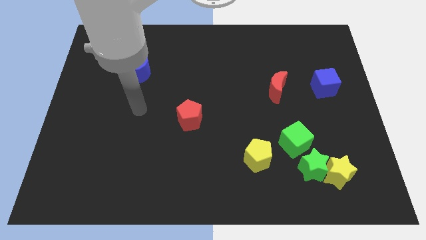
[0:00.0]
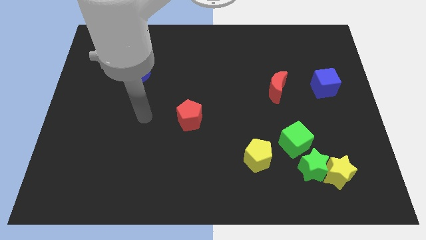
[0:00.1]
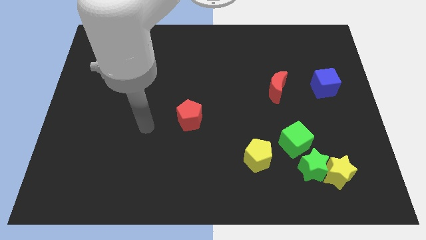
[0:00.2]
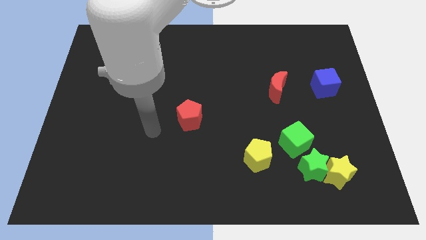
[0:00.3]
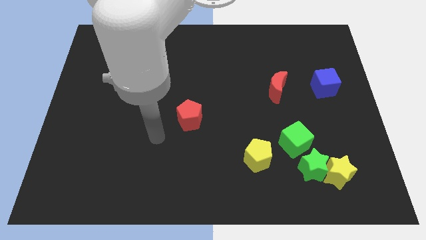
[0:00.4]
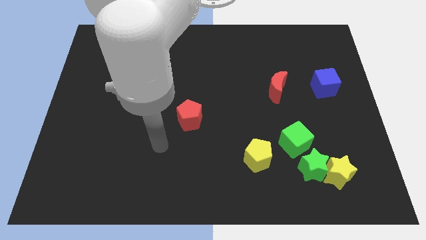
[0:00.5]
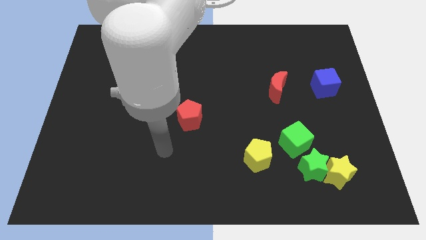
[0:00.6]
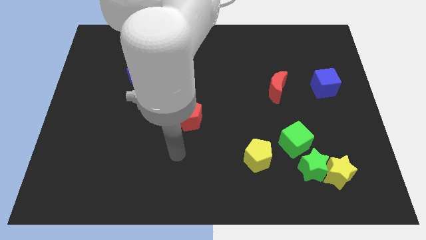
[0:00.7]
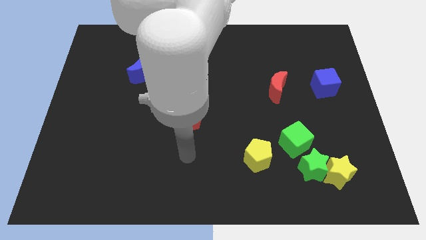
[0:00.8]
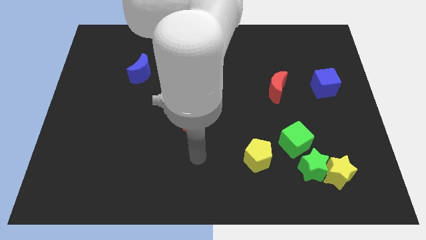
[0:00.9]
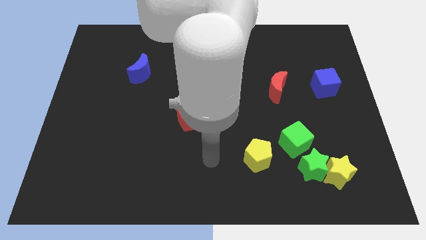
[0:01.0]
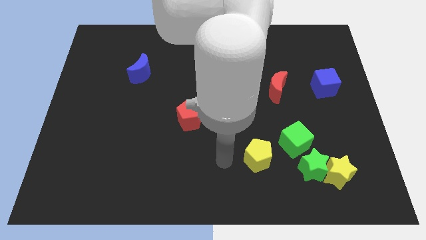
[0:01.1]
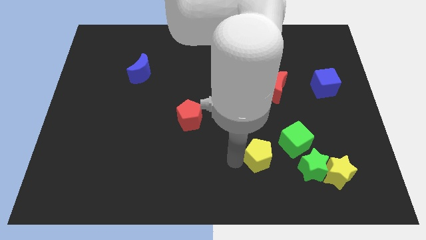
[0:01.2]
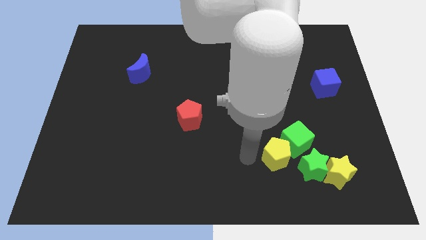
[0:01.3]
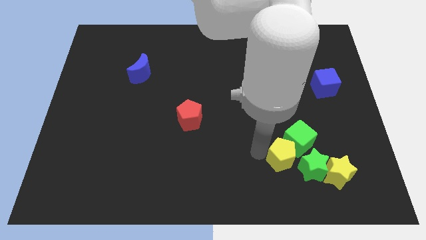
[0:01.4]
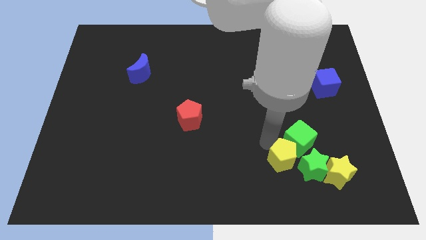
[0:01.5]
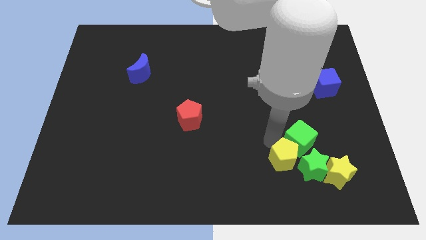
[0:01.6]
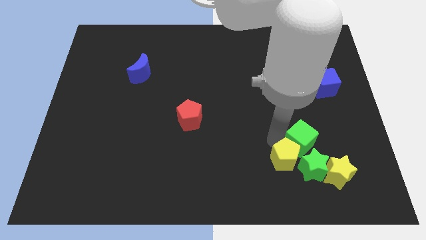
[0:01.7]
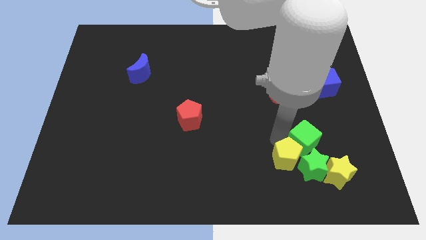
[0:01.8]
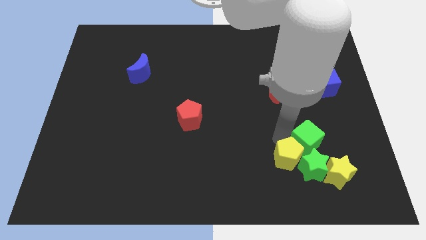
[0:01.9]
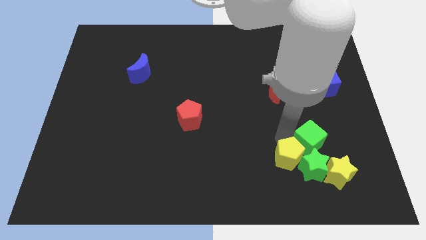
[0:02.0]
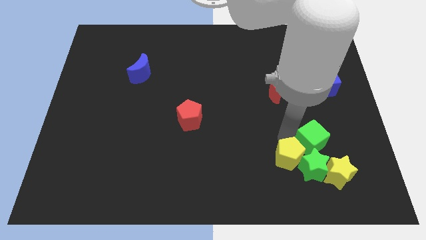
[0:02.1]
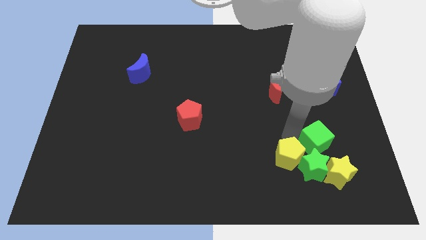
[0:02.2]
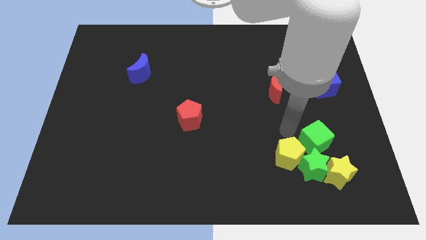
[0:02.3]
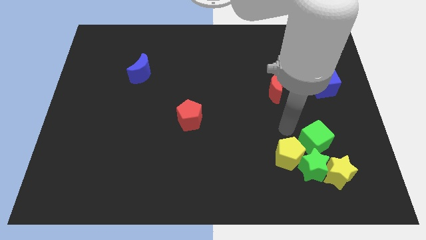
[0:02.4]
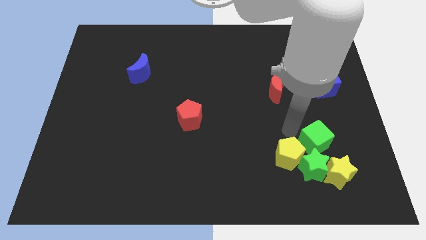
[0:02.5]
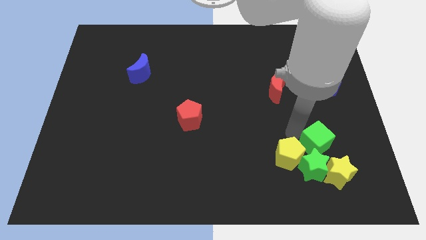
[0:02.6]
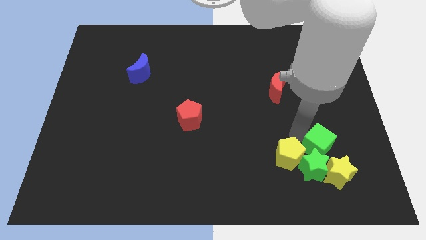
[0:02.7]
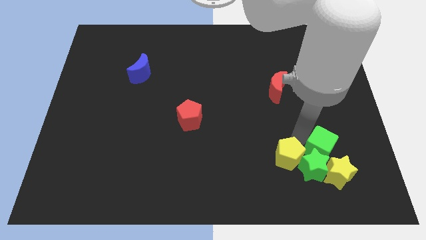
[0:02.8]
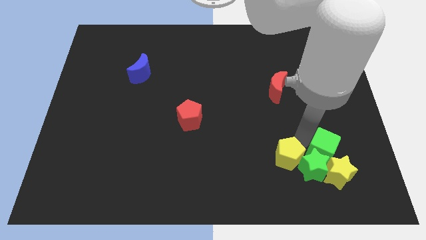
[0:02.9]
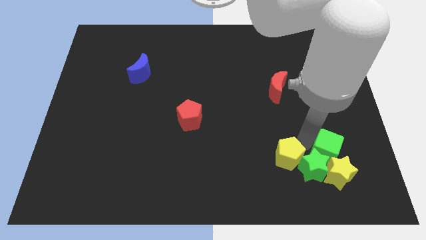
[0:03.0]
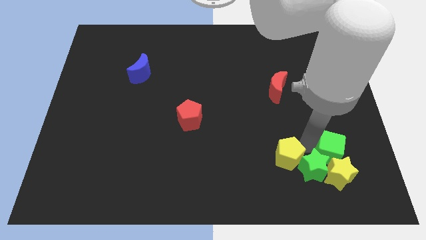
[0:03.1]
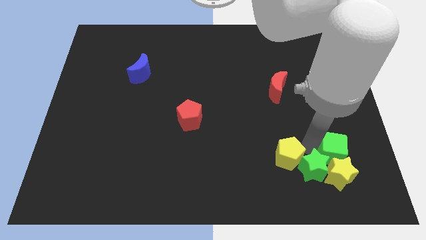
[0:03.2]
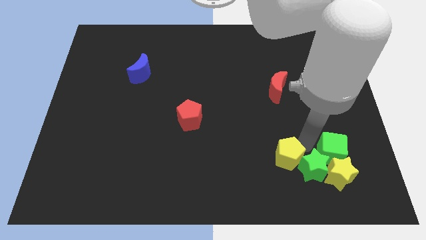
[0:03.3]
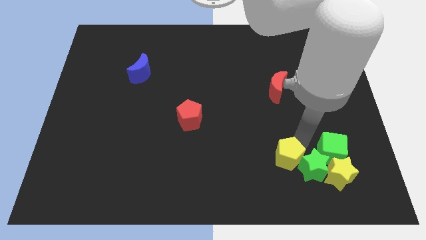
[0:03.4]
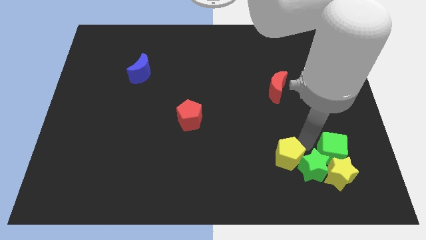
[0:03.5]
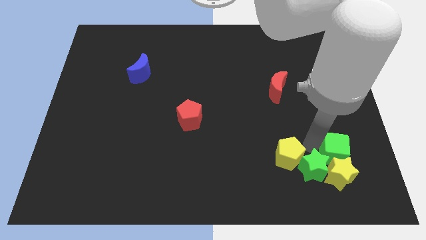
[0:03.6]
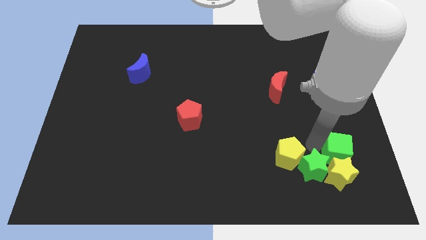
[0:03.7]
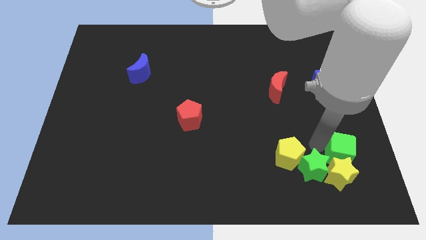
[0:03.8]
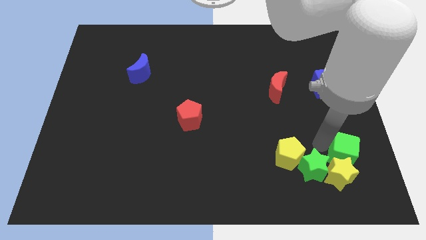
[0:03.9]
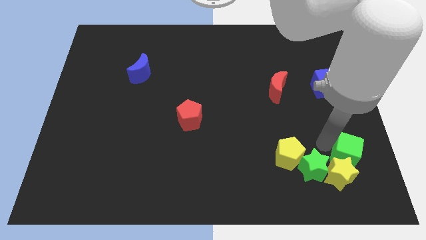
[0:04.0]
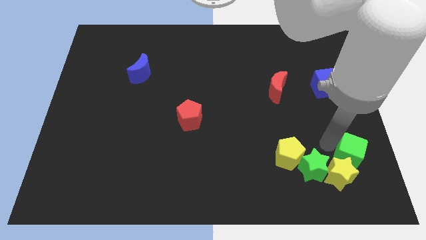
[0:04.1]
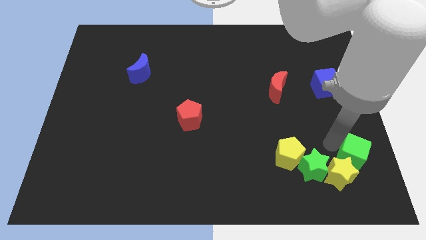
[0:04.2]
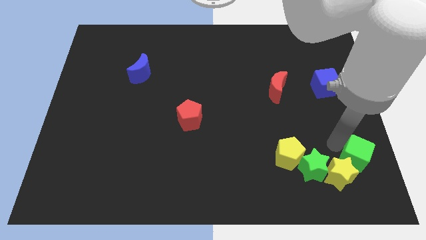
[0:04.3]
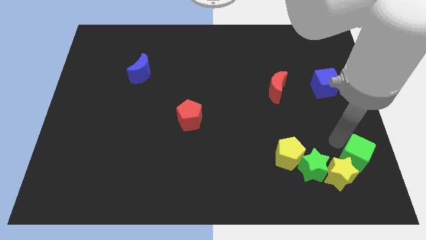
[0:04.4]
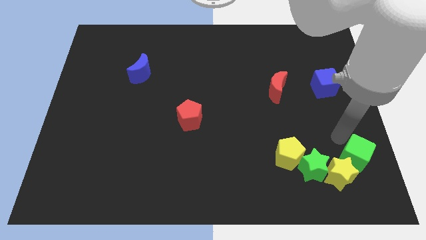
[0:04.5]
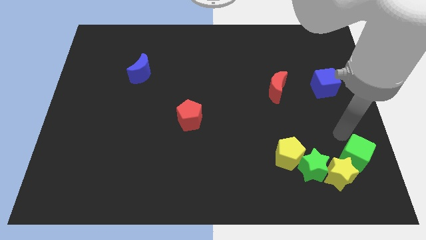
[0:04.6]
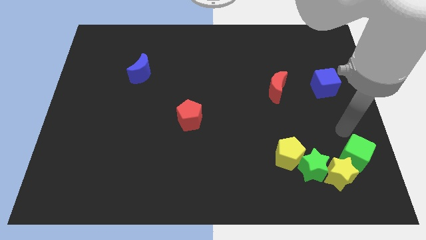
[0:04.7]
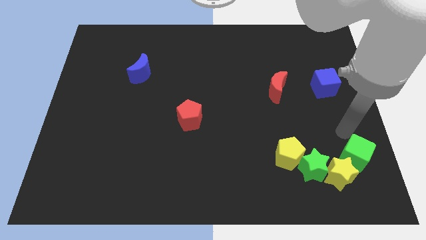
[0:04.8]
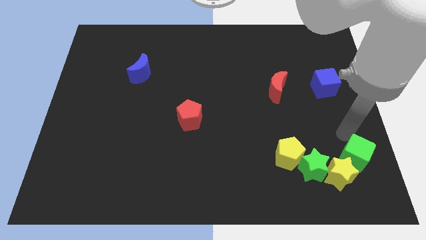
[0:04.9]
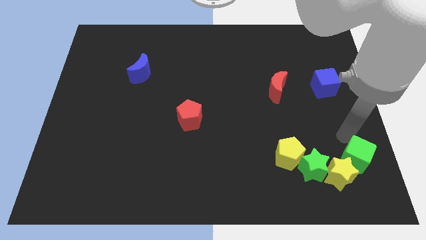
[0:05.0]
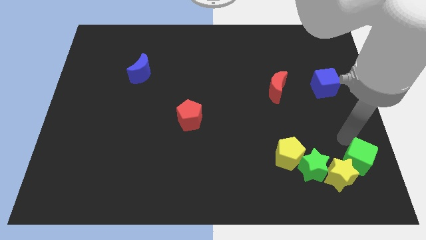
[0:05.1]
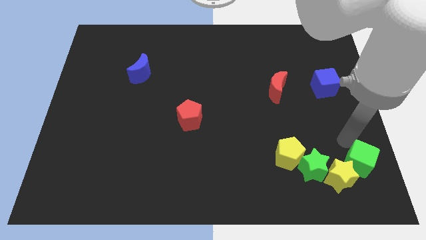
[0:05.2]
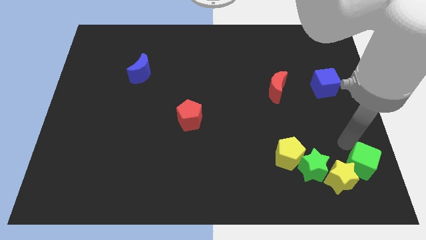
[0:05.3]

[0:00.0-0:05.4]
move the green cube to the bottom right

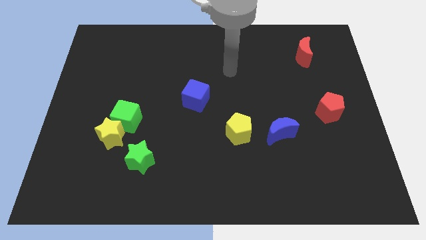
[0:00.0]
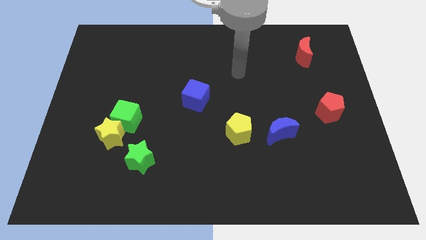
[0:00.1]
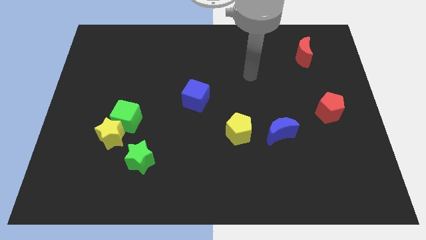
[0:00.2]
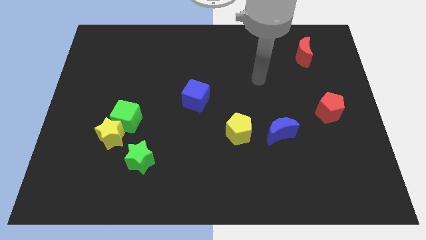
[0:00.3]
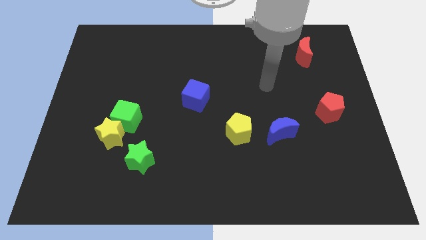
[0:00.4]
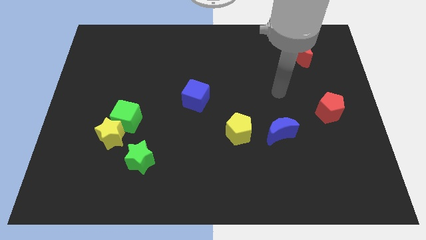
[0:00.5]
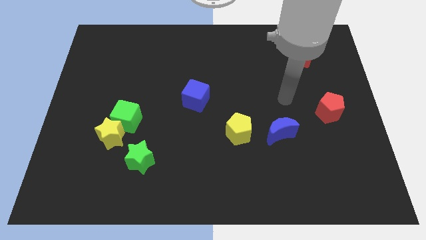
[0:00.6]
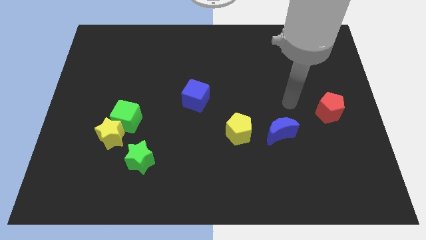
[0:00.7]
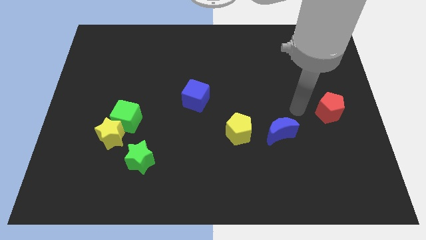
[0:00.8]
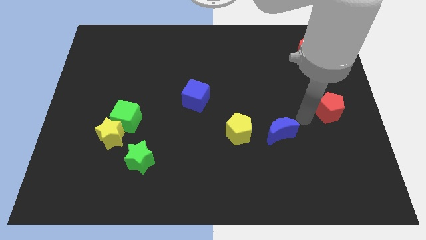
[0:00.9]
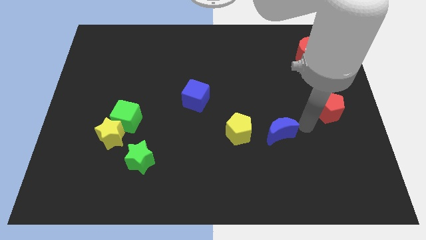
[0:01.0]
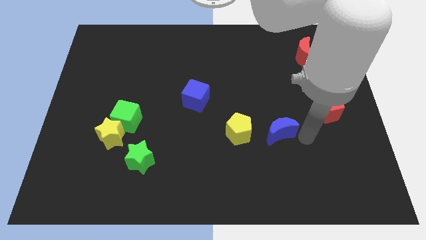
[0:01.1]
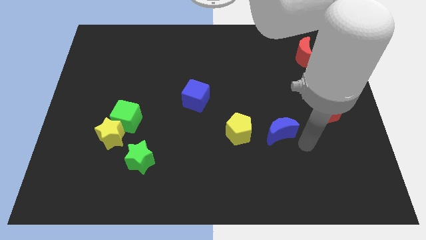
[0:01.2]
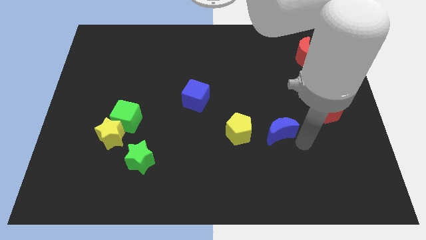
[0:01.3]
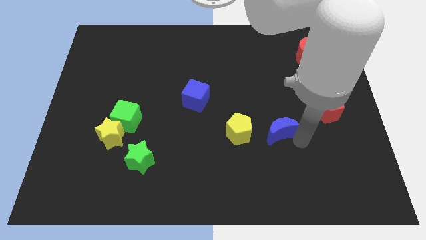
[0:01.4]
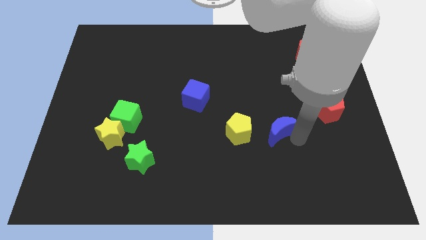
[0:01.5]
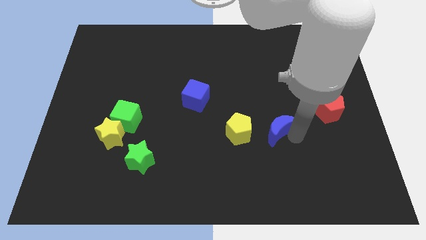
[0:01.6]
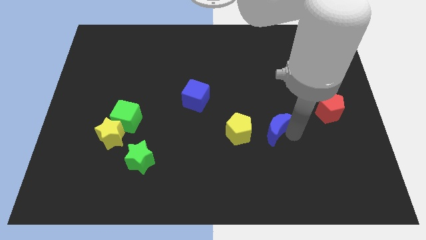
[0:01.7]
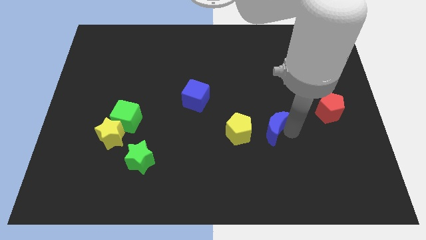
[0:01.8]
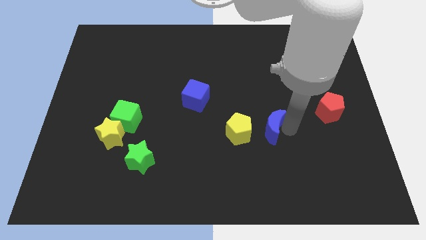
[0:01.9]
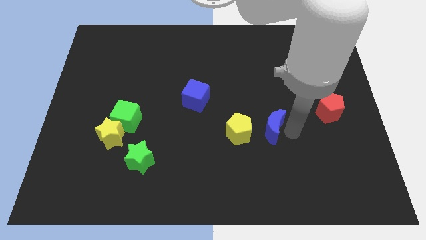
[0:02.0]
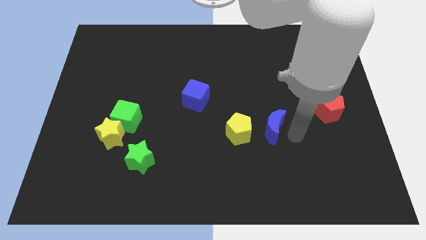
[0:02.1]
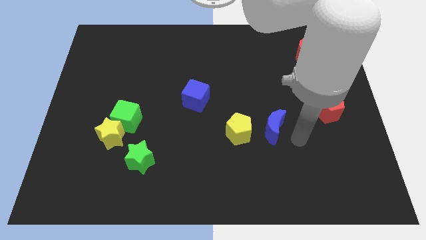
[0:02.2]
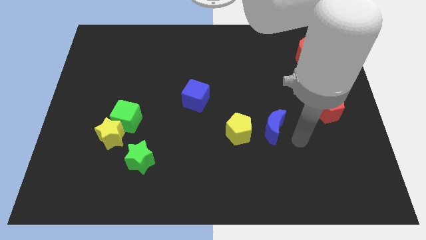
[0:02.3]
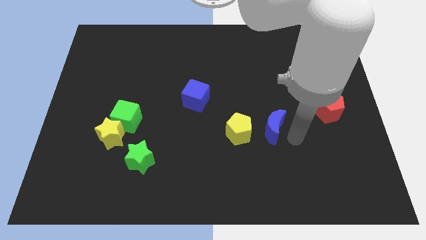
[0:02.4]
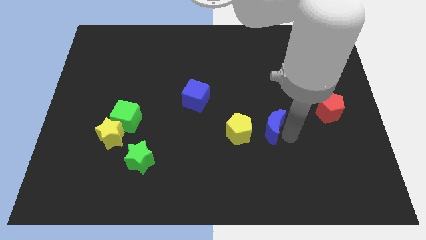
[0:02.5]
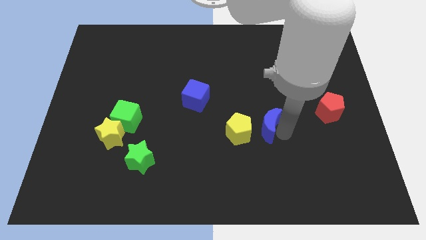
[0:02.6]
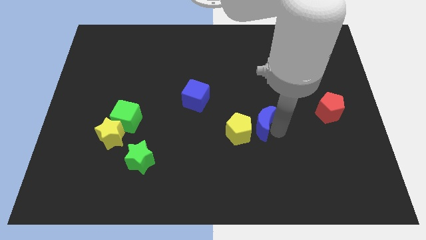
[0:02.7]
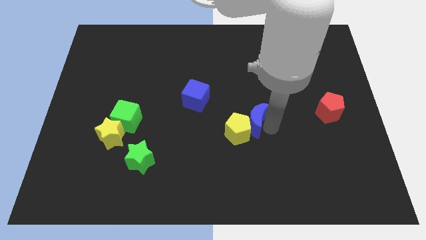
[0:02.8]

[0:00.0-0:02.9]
push the blue moon to the center of the board
